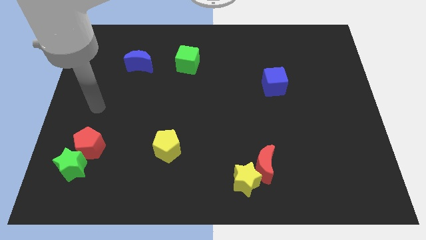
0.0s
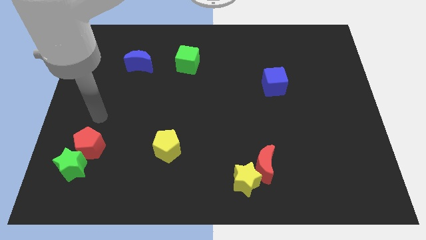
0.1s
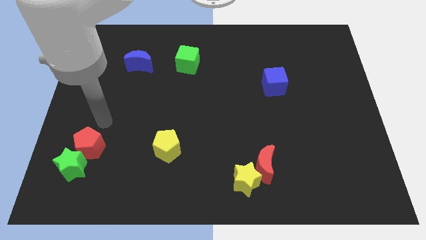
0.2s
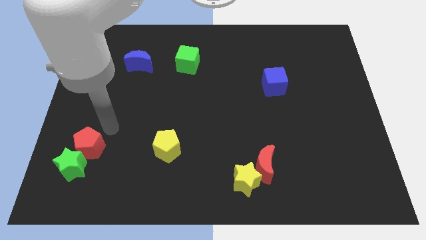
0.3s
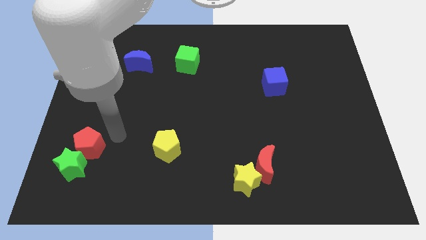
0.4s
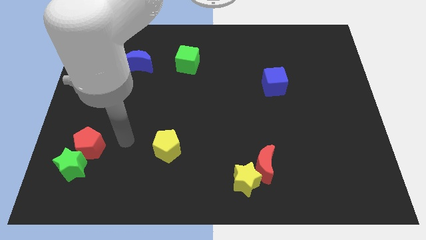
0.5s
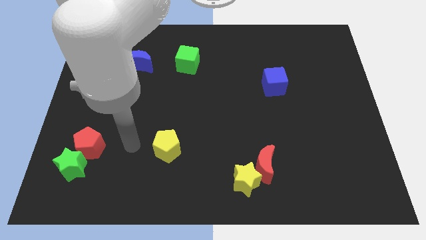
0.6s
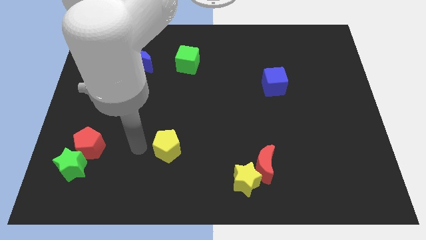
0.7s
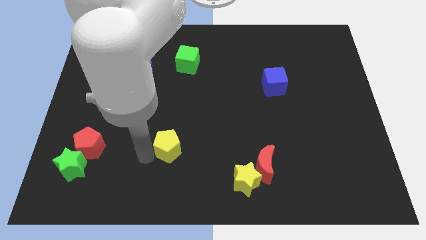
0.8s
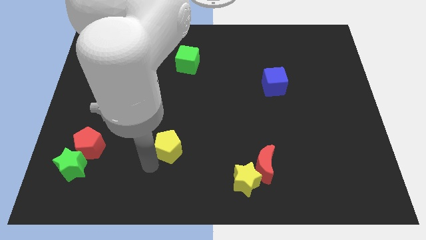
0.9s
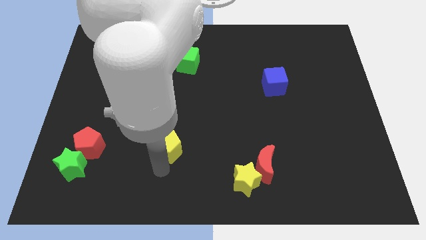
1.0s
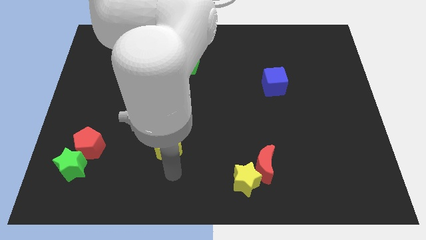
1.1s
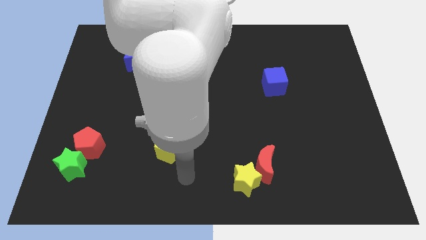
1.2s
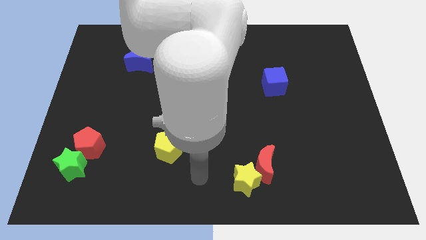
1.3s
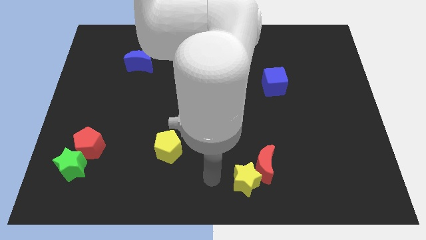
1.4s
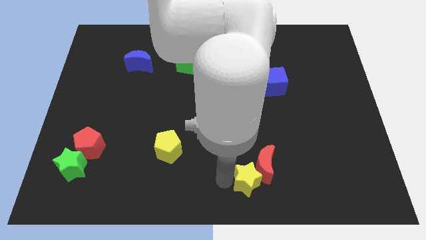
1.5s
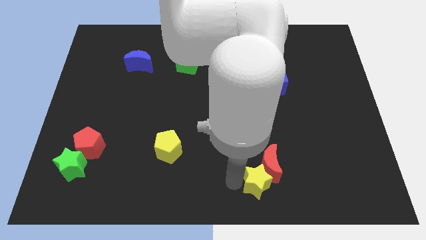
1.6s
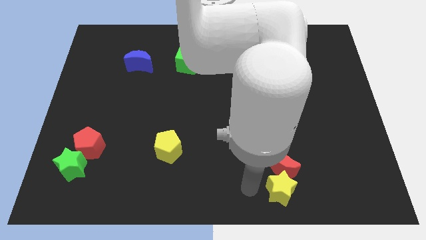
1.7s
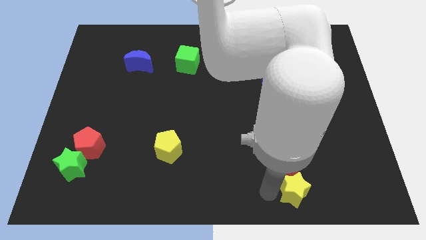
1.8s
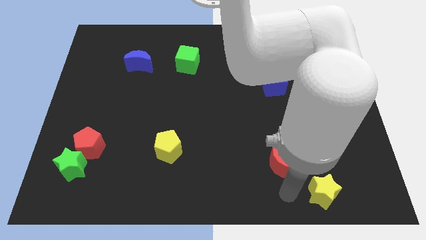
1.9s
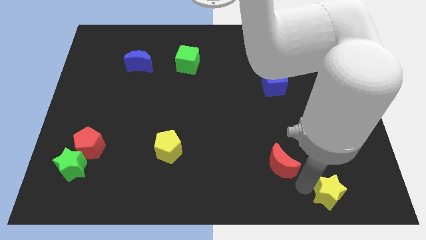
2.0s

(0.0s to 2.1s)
separate the red moon from the yellow star

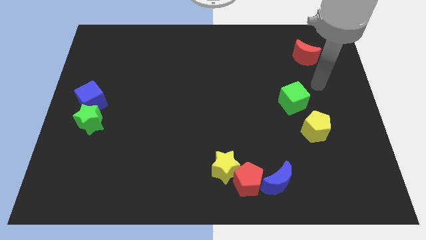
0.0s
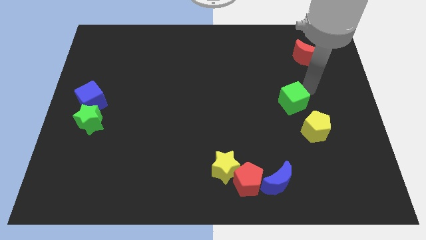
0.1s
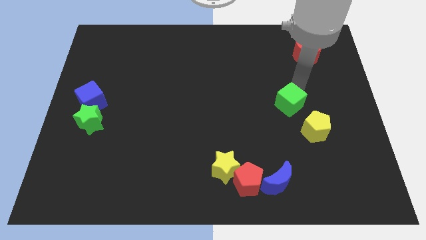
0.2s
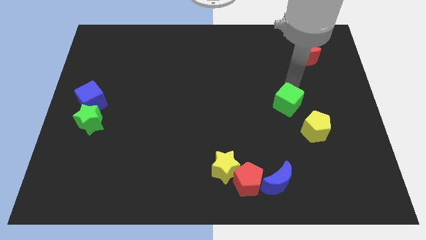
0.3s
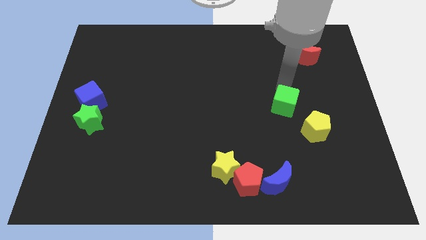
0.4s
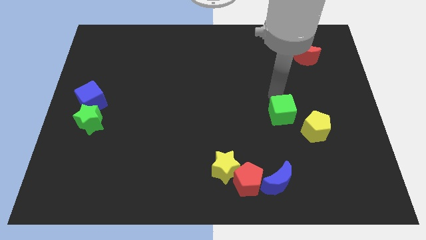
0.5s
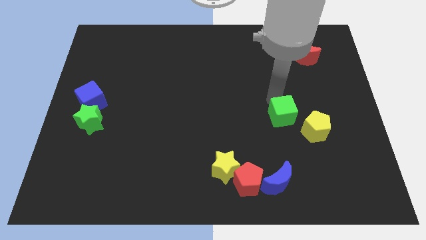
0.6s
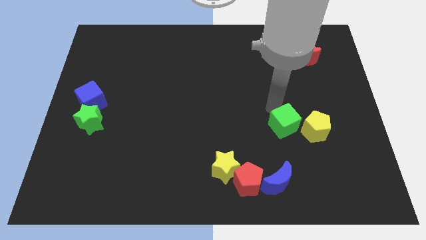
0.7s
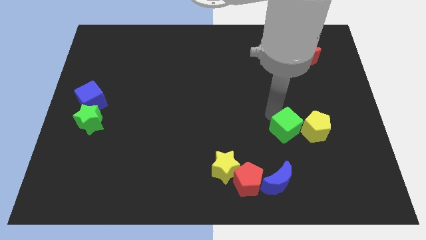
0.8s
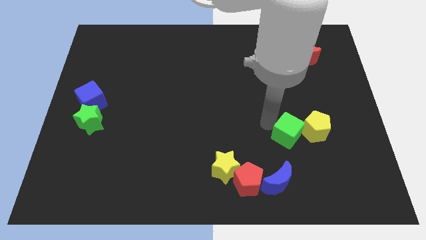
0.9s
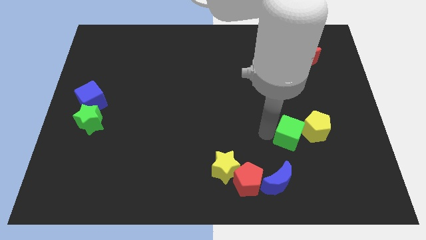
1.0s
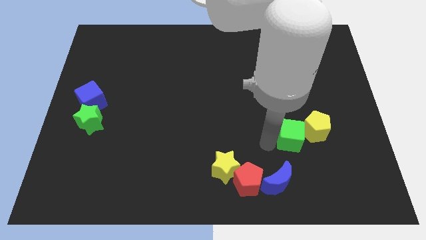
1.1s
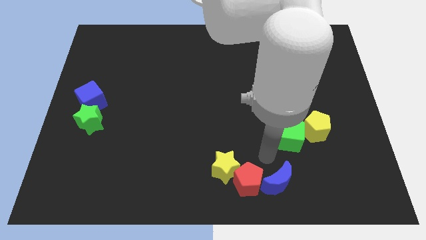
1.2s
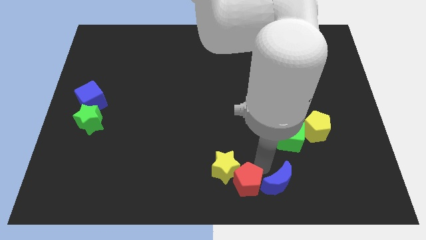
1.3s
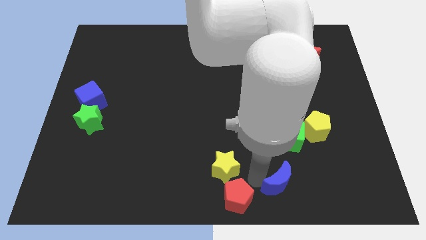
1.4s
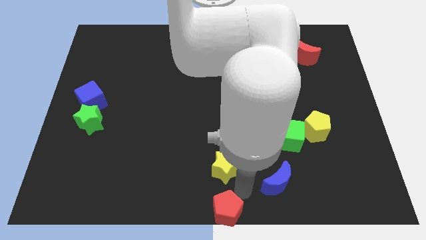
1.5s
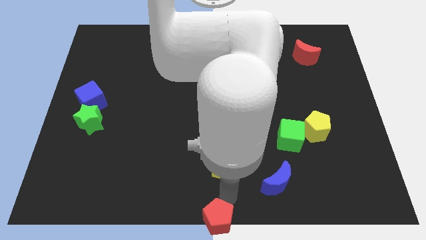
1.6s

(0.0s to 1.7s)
separate the yellow star from the red pentagon

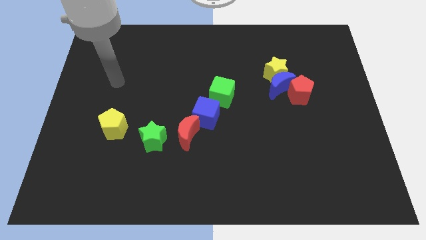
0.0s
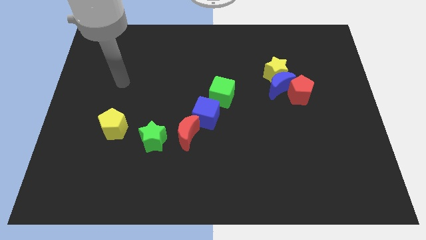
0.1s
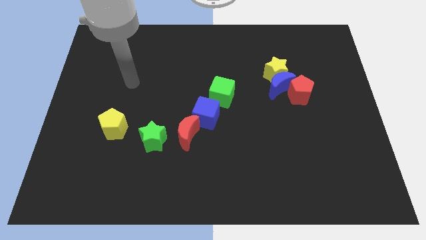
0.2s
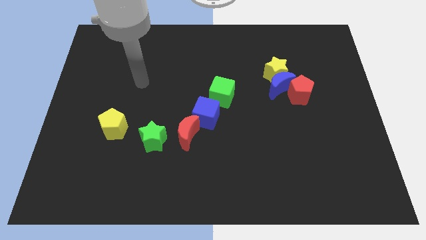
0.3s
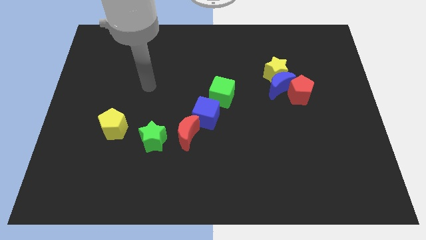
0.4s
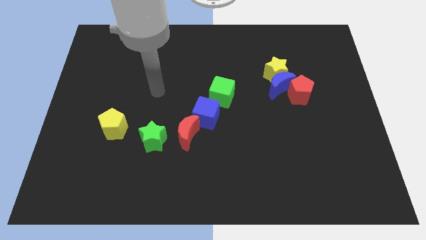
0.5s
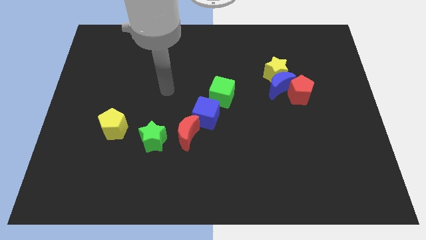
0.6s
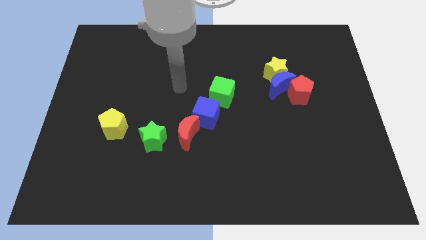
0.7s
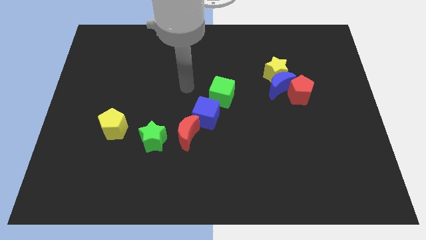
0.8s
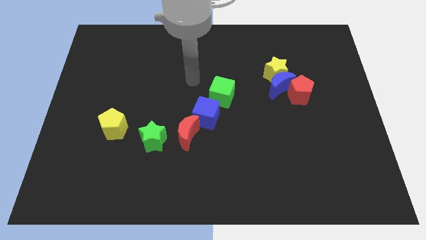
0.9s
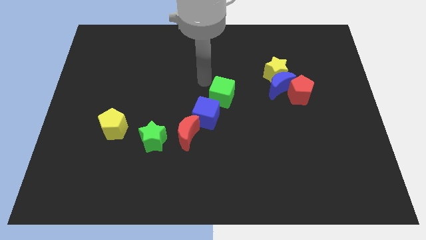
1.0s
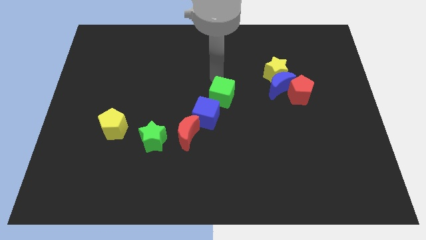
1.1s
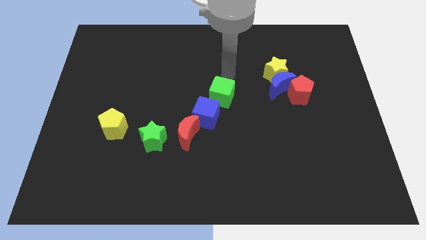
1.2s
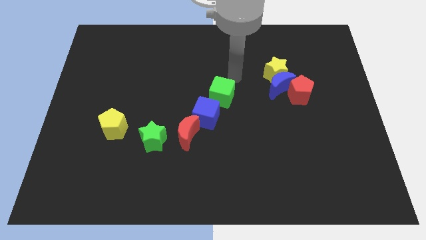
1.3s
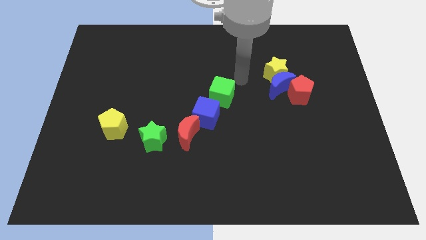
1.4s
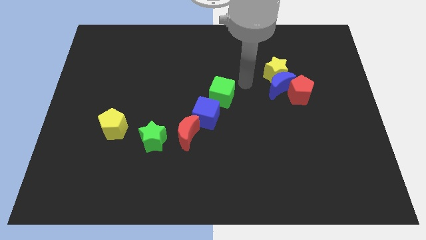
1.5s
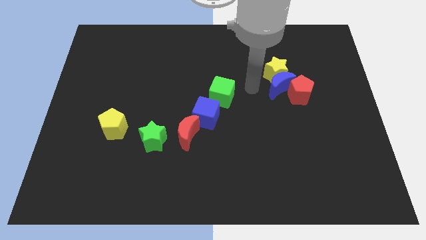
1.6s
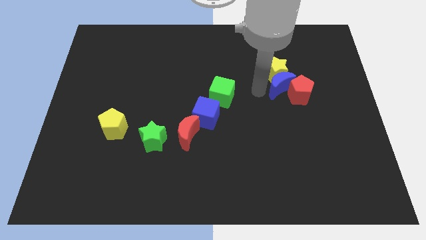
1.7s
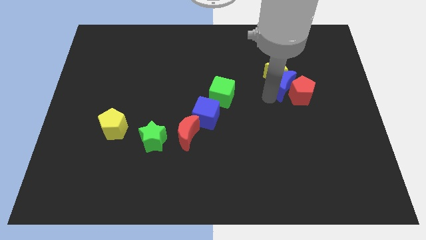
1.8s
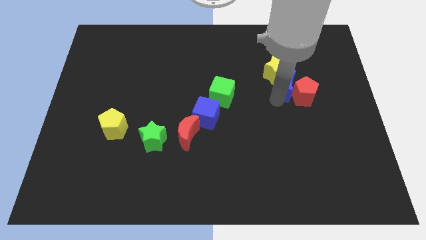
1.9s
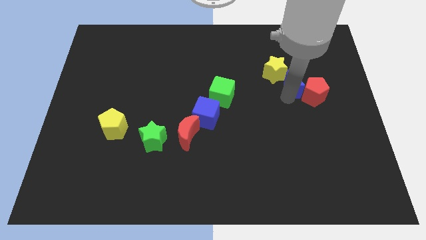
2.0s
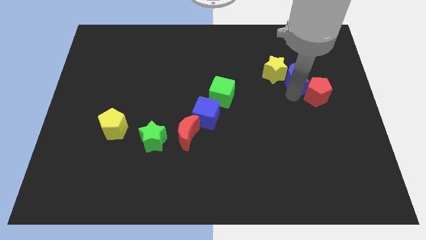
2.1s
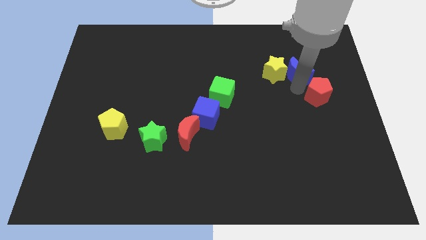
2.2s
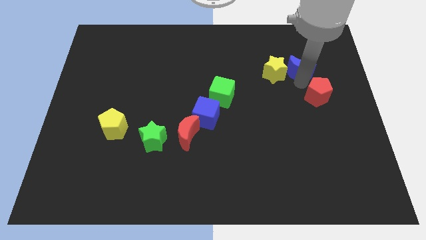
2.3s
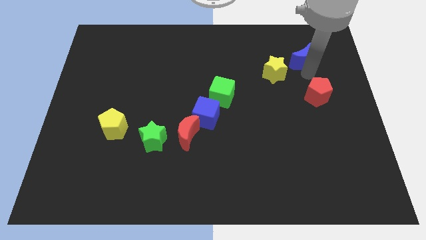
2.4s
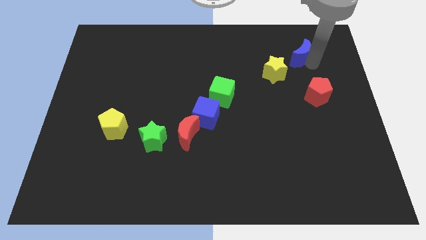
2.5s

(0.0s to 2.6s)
move the blue moon away from the yellow star and red pentagon

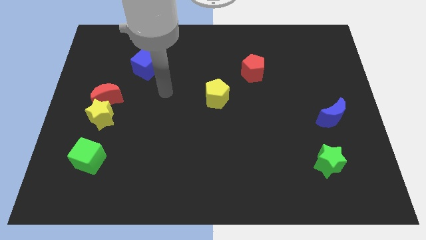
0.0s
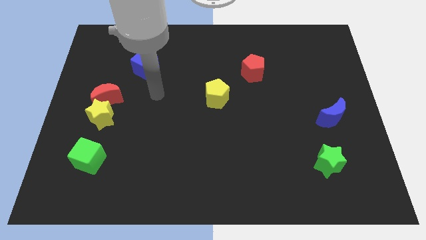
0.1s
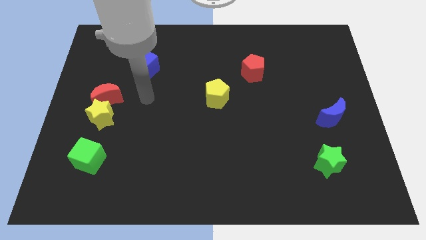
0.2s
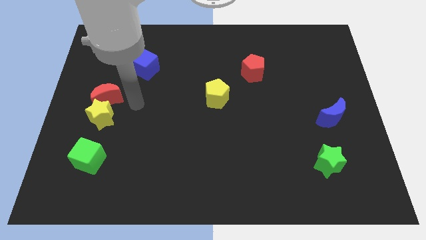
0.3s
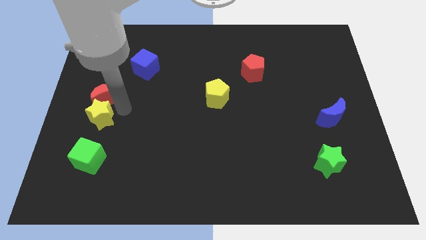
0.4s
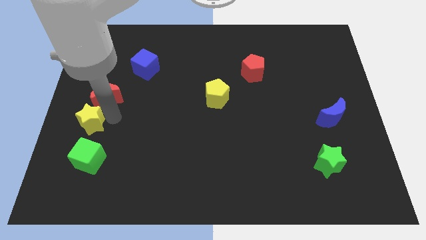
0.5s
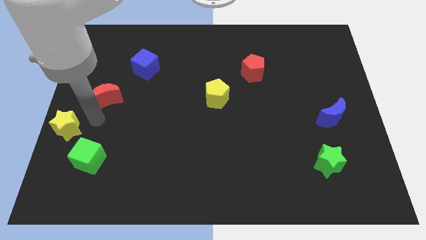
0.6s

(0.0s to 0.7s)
pull the red moon apart from the yellow star

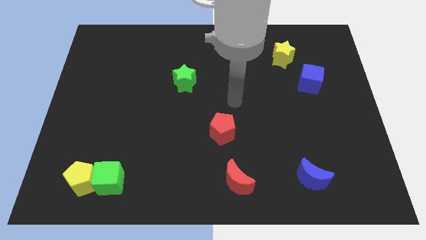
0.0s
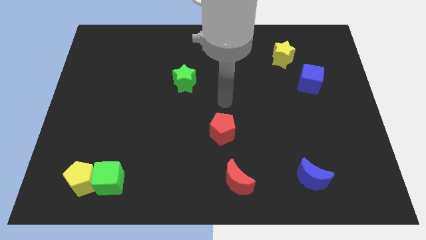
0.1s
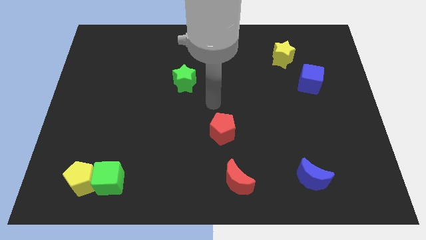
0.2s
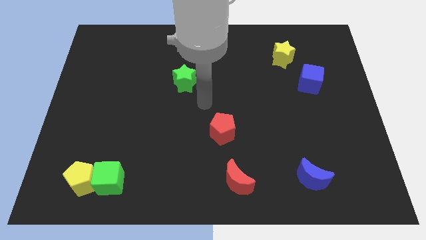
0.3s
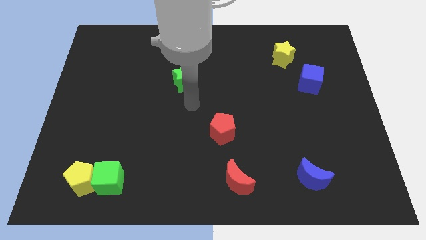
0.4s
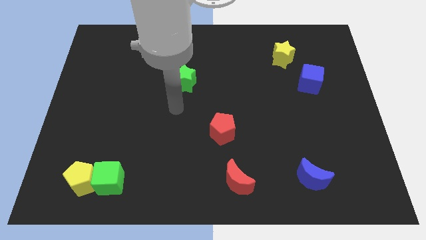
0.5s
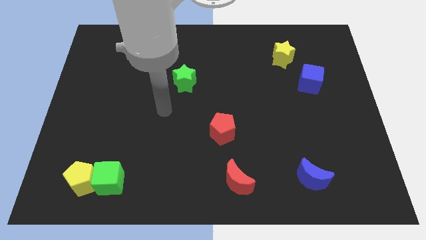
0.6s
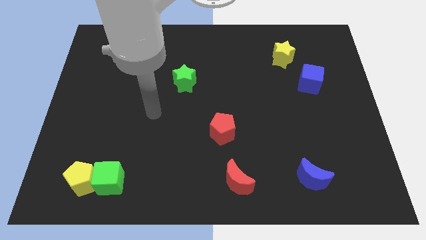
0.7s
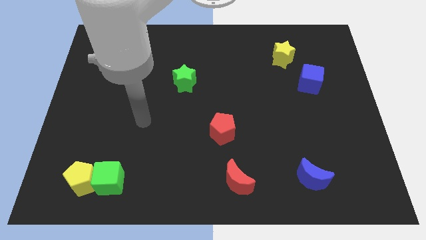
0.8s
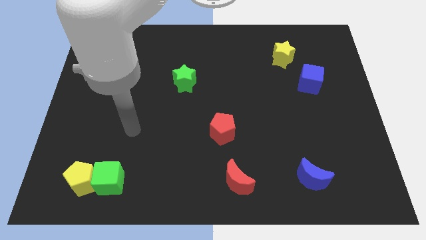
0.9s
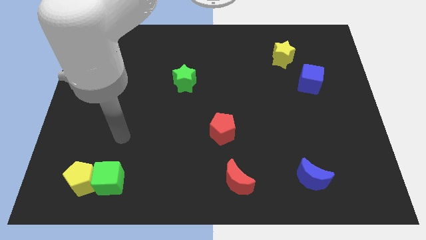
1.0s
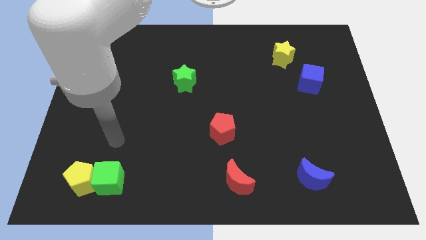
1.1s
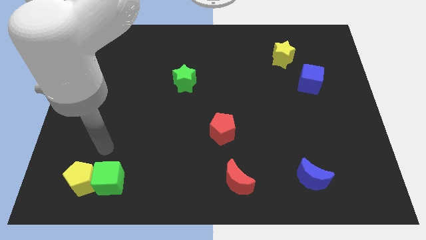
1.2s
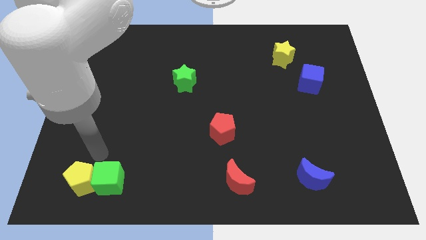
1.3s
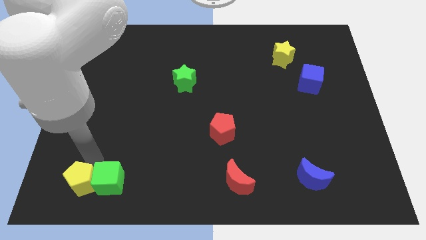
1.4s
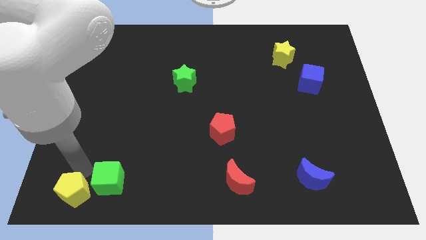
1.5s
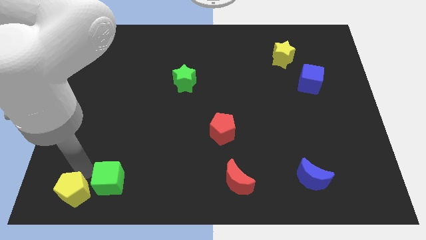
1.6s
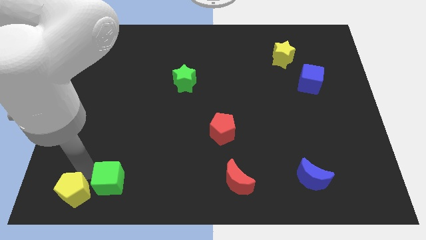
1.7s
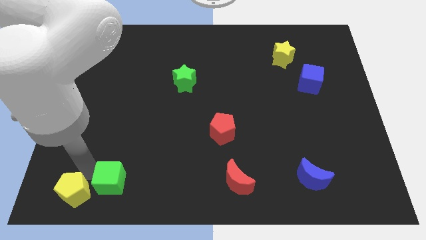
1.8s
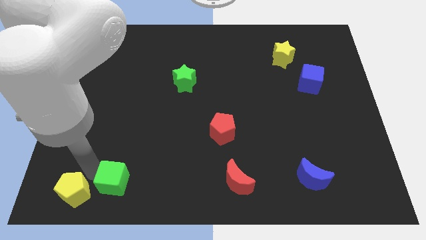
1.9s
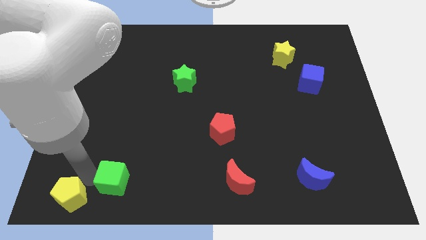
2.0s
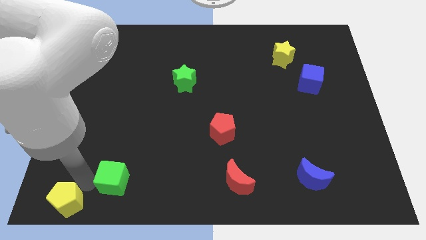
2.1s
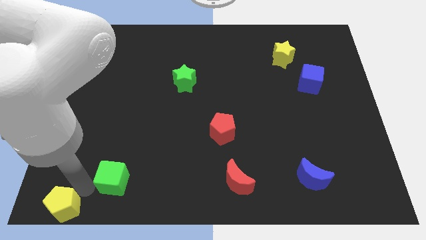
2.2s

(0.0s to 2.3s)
move the green cube away from the yellow pentagon
